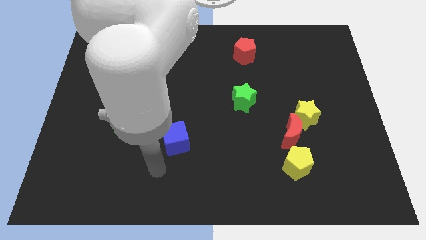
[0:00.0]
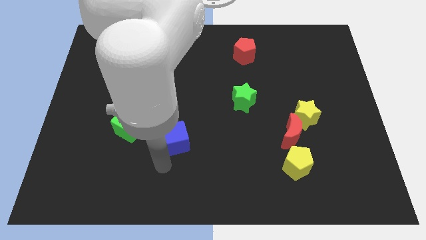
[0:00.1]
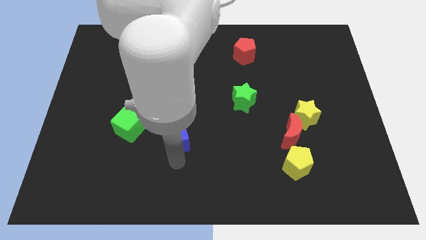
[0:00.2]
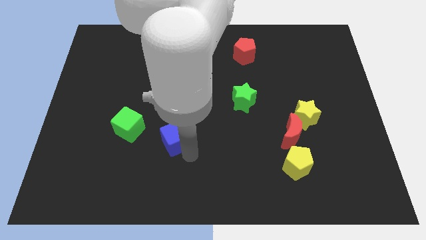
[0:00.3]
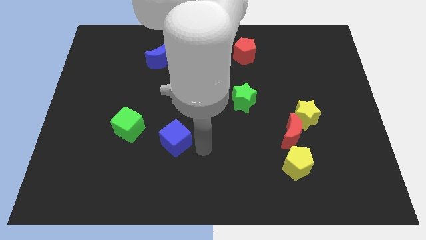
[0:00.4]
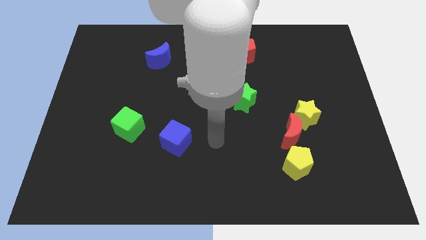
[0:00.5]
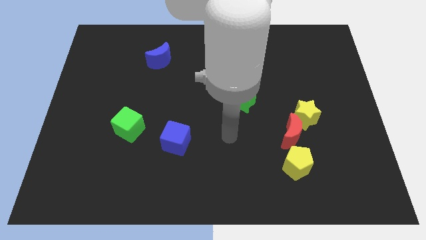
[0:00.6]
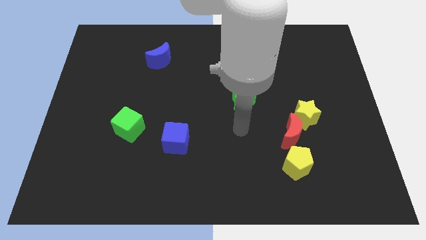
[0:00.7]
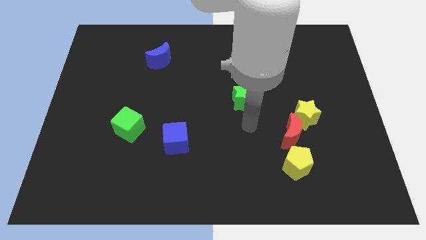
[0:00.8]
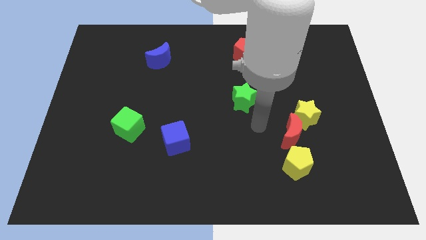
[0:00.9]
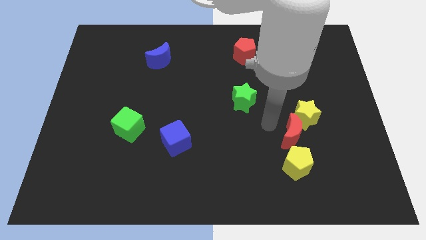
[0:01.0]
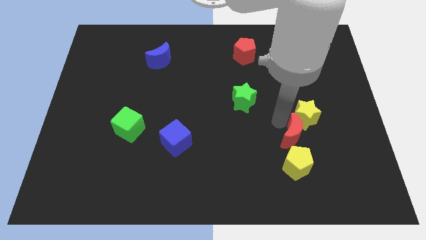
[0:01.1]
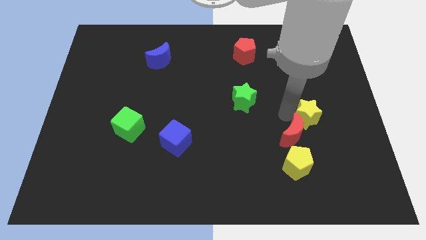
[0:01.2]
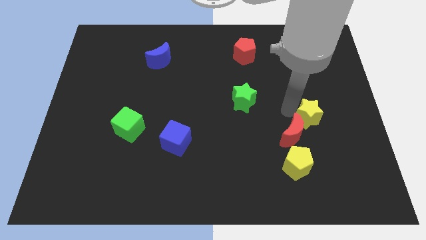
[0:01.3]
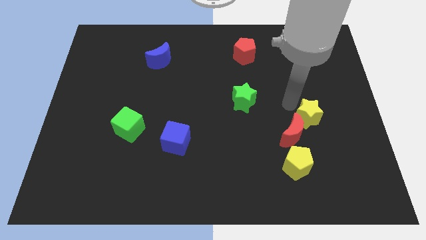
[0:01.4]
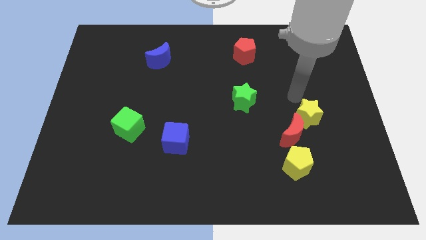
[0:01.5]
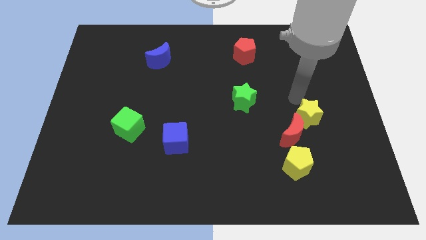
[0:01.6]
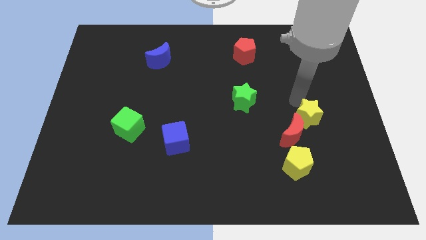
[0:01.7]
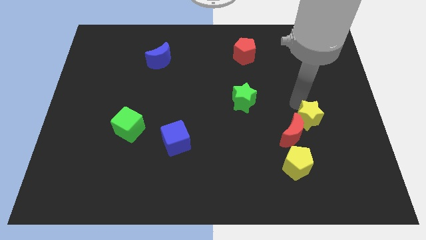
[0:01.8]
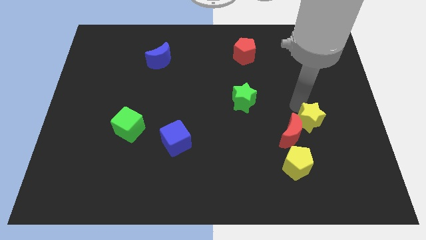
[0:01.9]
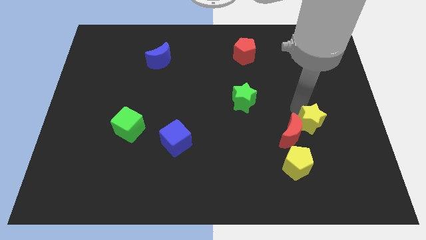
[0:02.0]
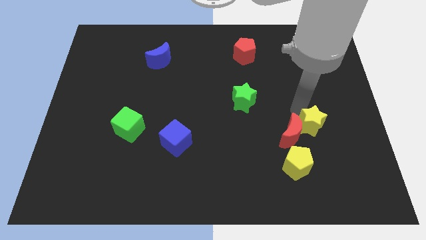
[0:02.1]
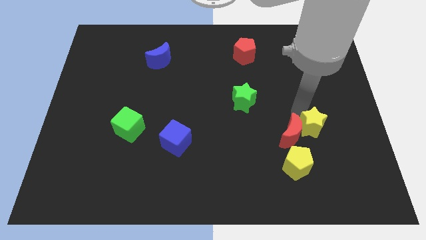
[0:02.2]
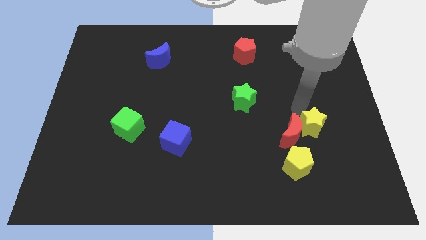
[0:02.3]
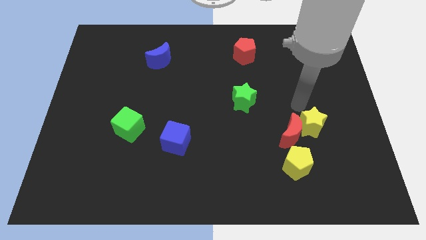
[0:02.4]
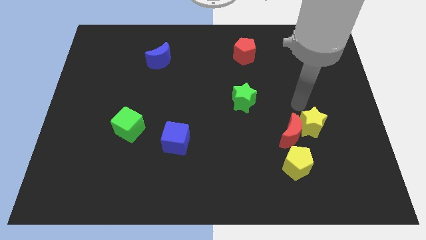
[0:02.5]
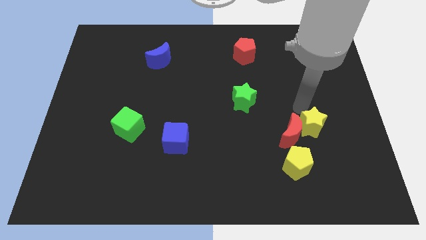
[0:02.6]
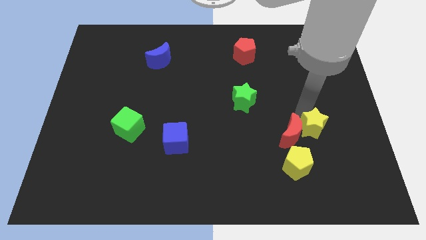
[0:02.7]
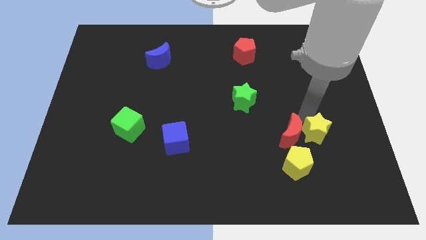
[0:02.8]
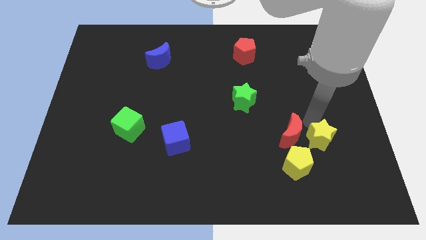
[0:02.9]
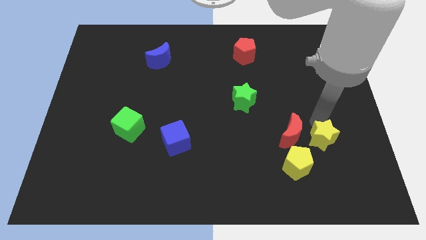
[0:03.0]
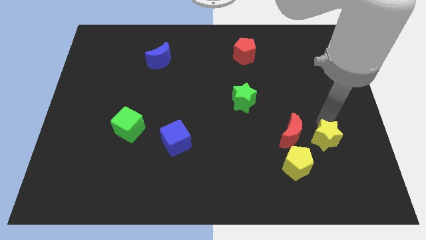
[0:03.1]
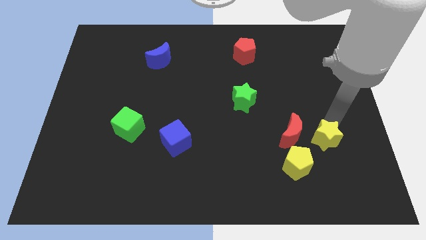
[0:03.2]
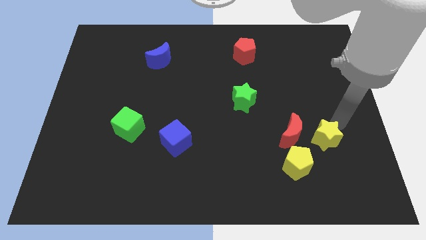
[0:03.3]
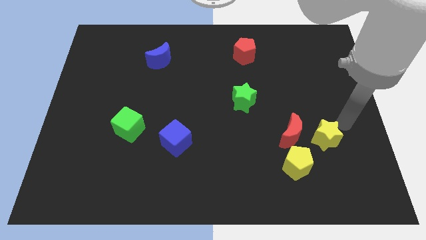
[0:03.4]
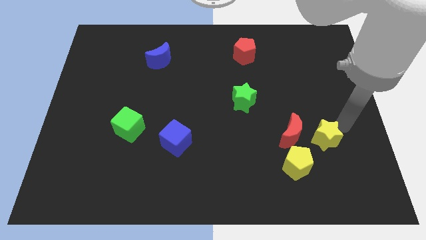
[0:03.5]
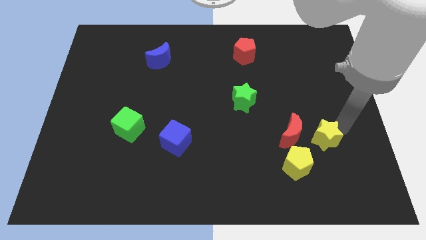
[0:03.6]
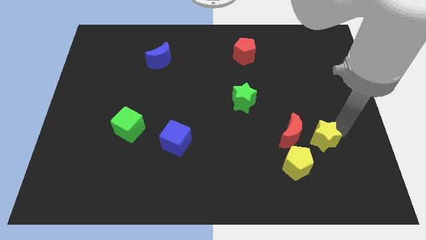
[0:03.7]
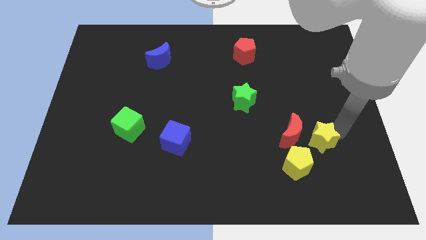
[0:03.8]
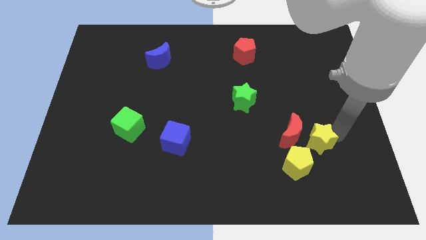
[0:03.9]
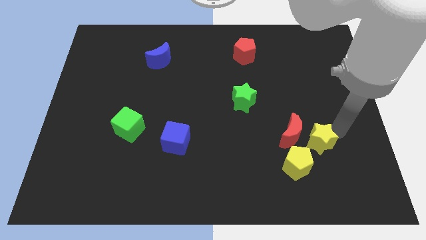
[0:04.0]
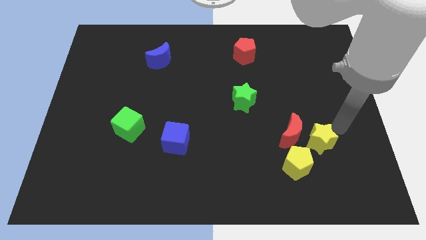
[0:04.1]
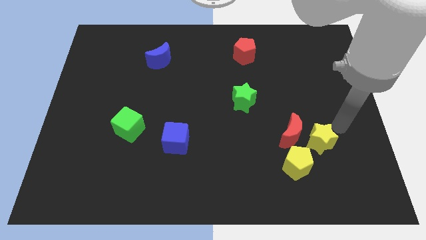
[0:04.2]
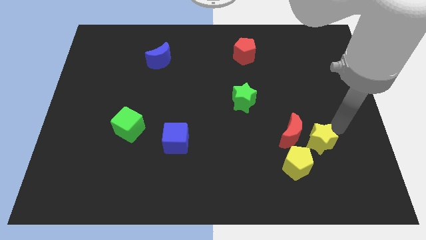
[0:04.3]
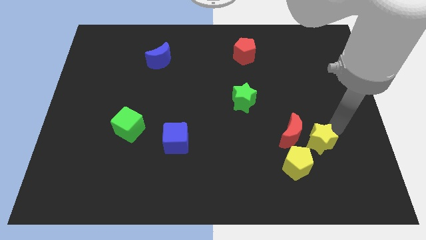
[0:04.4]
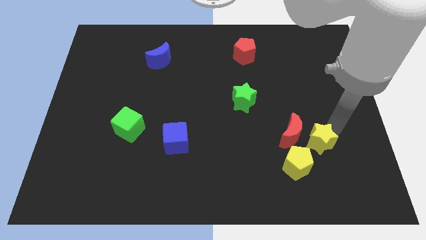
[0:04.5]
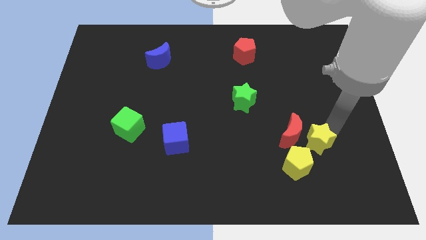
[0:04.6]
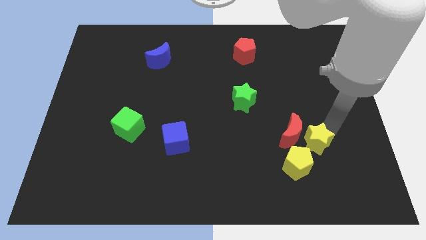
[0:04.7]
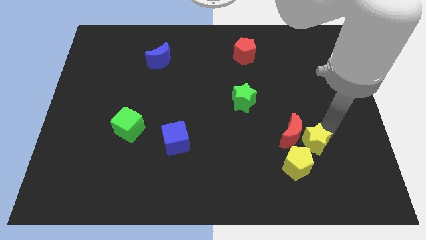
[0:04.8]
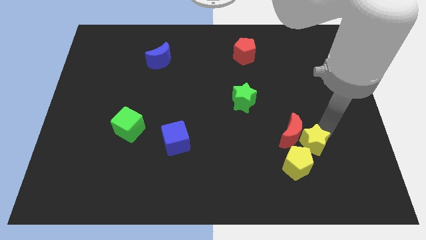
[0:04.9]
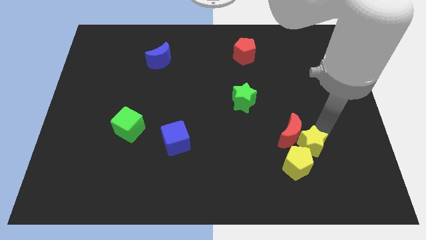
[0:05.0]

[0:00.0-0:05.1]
push the yellow star to the yellow pentagon

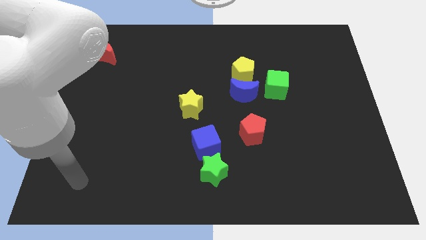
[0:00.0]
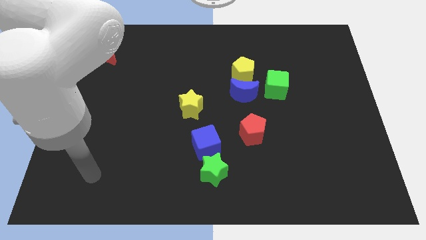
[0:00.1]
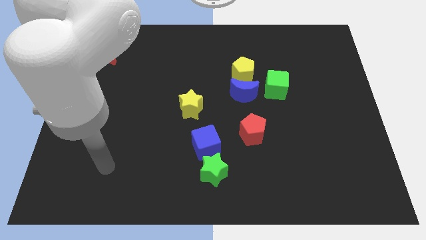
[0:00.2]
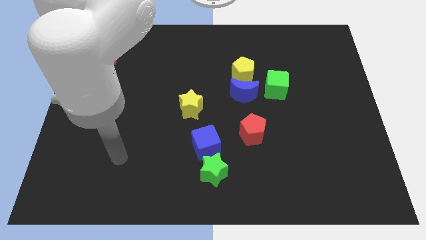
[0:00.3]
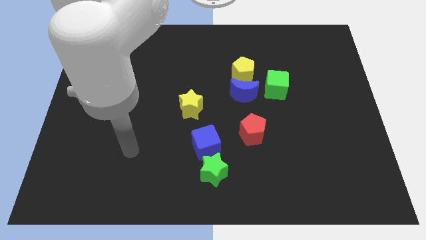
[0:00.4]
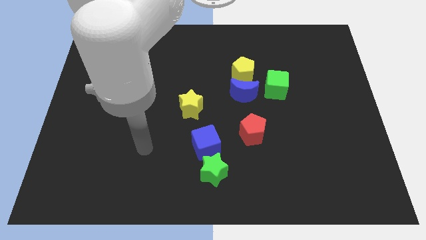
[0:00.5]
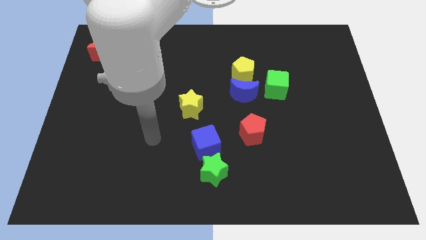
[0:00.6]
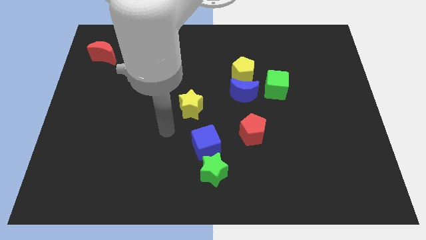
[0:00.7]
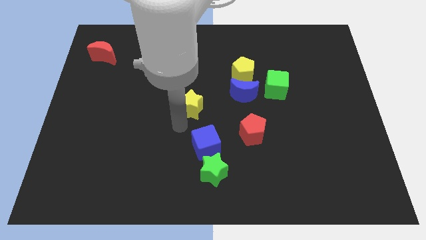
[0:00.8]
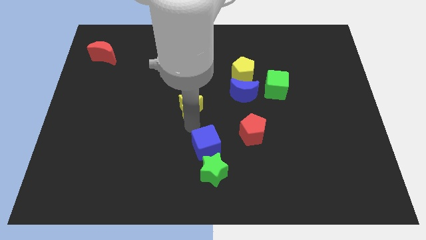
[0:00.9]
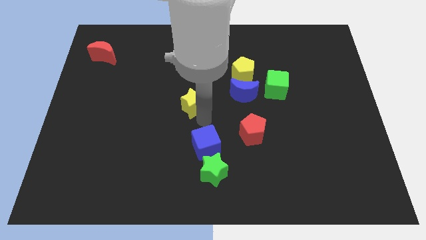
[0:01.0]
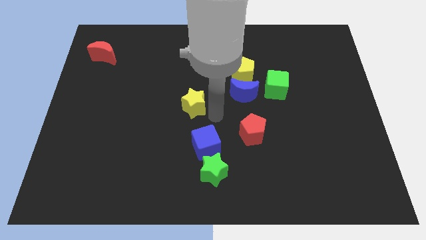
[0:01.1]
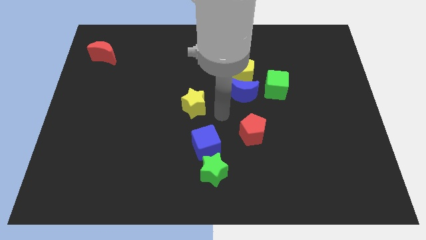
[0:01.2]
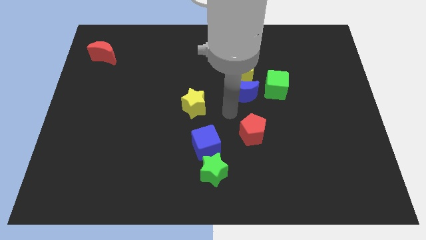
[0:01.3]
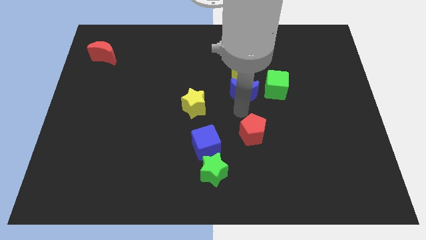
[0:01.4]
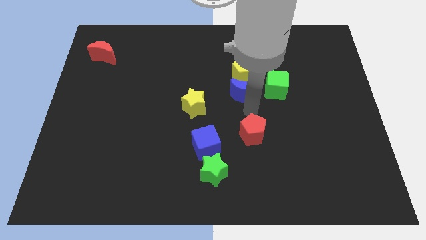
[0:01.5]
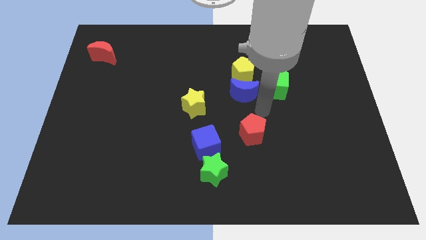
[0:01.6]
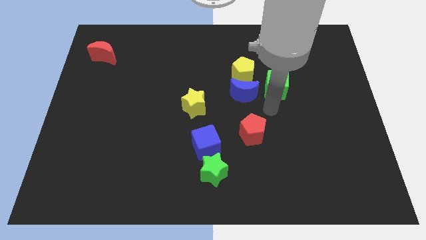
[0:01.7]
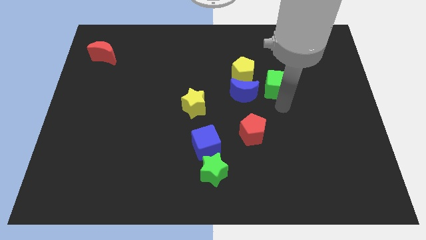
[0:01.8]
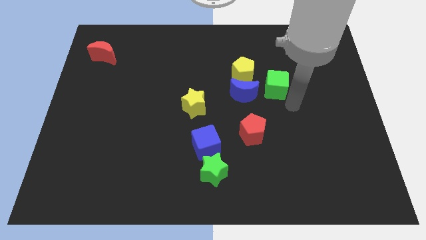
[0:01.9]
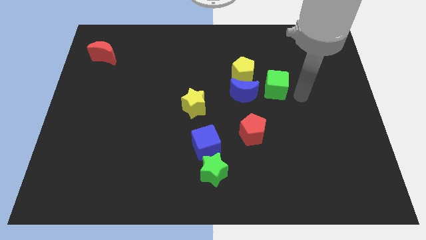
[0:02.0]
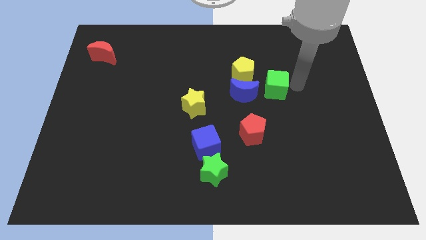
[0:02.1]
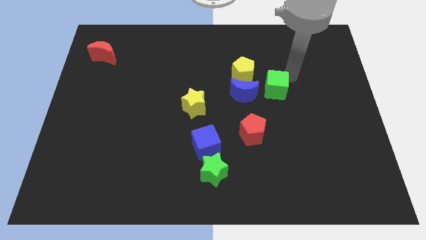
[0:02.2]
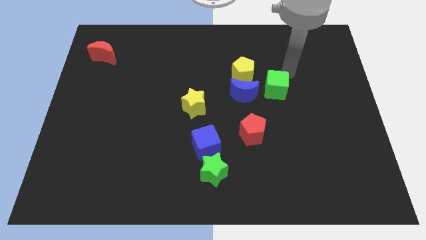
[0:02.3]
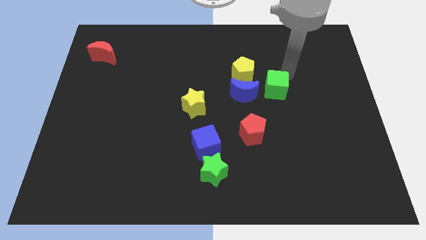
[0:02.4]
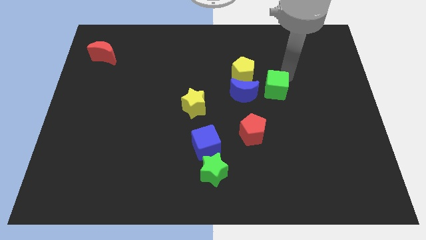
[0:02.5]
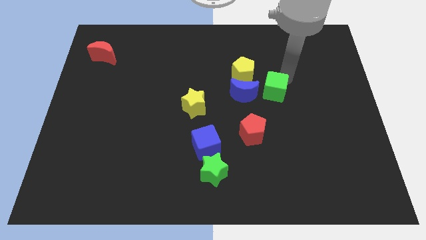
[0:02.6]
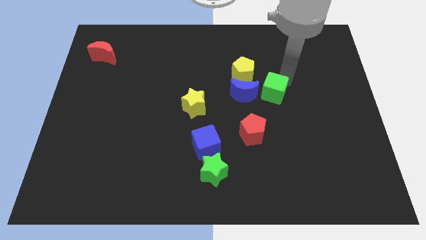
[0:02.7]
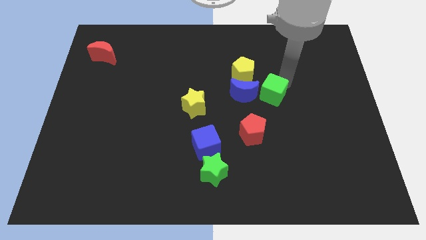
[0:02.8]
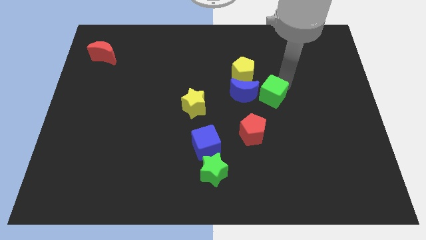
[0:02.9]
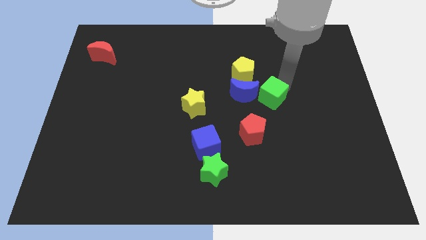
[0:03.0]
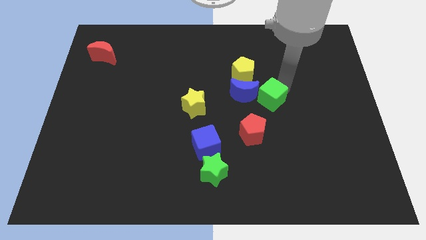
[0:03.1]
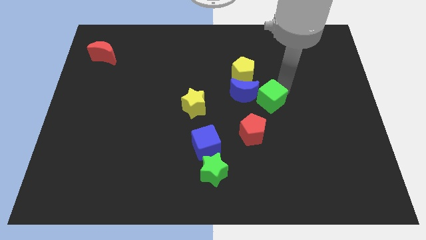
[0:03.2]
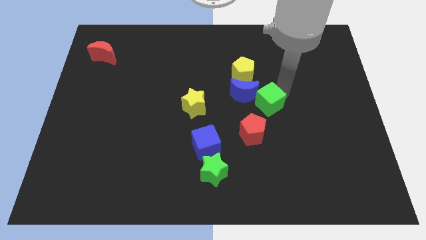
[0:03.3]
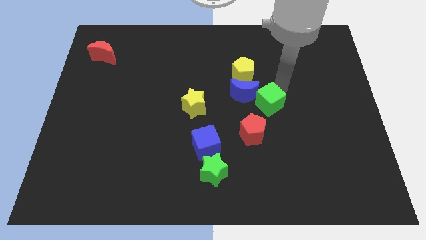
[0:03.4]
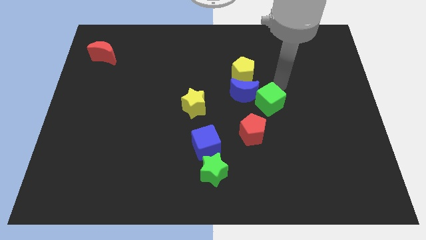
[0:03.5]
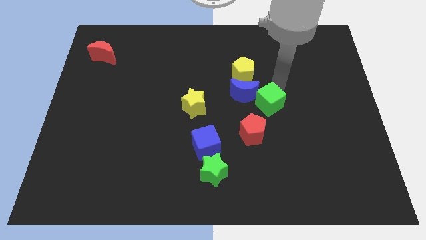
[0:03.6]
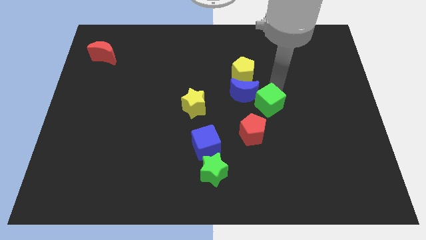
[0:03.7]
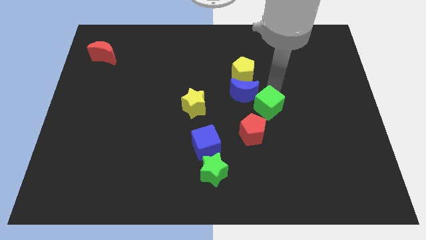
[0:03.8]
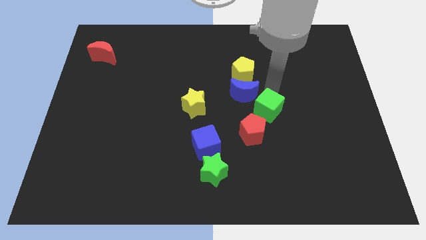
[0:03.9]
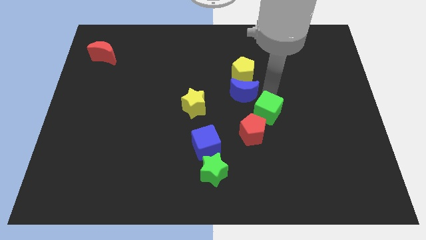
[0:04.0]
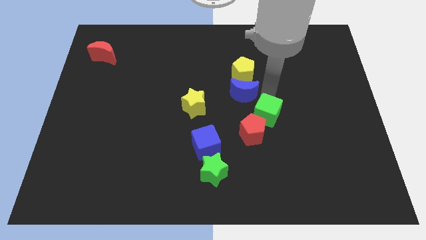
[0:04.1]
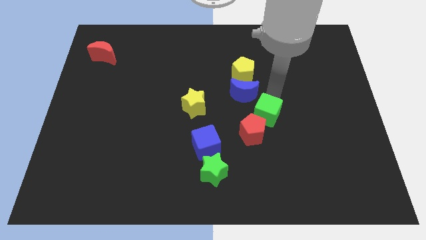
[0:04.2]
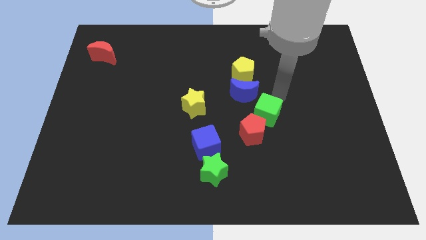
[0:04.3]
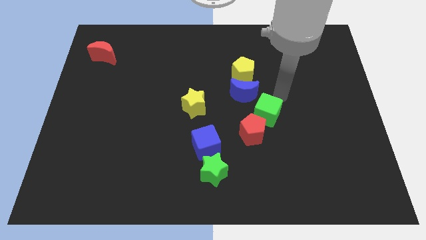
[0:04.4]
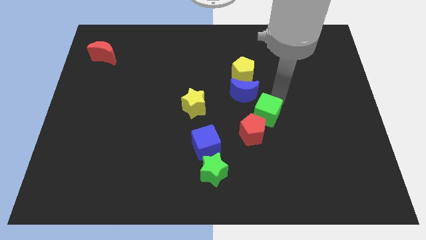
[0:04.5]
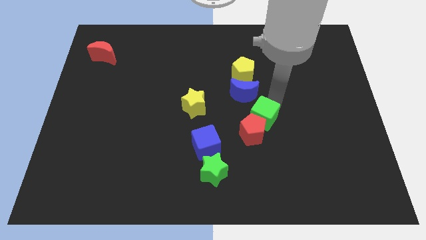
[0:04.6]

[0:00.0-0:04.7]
move the green cube towards the red pentagon
